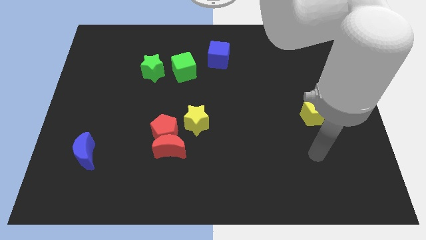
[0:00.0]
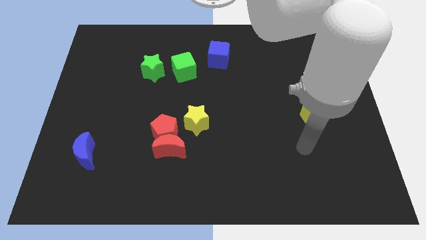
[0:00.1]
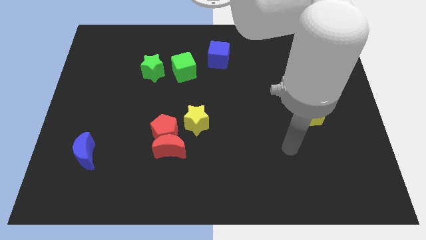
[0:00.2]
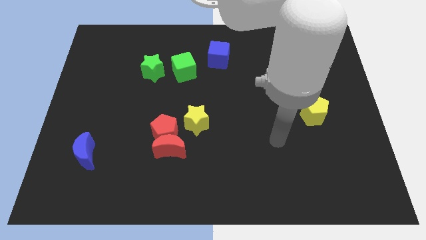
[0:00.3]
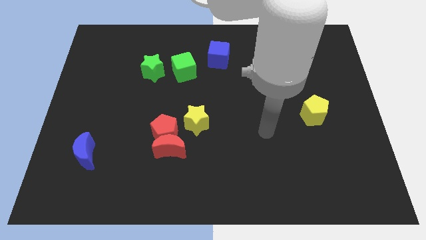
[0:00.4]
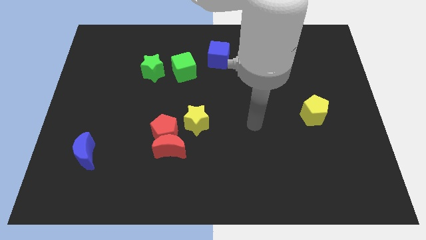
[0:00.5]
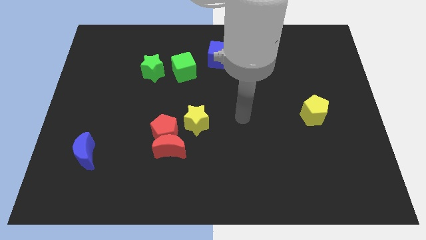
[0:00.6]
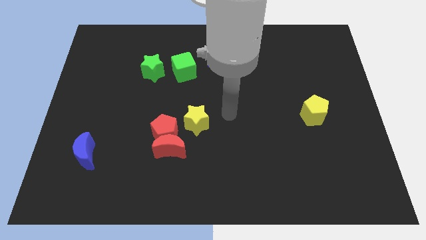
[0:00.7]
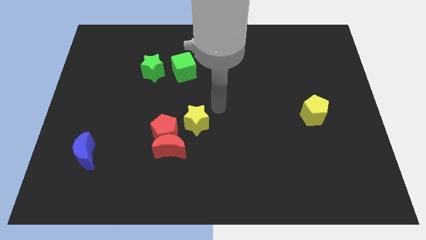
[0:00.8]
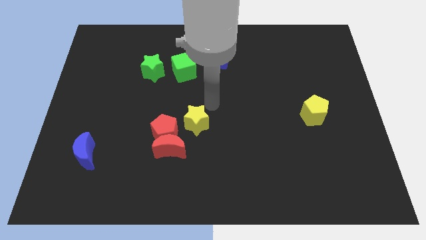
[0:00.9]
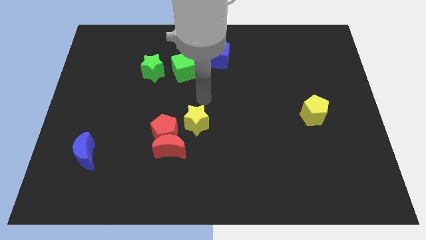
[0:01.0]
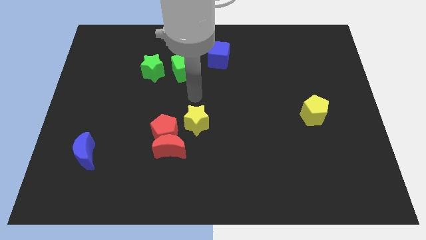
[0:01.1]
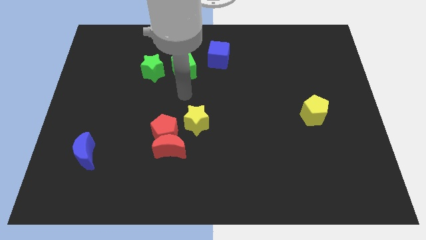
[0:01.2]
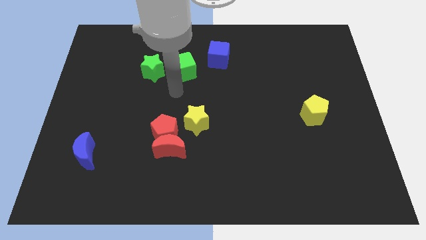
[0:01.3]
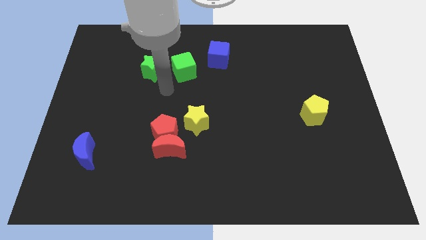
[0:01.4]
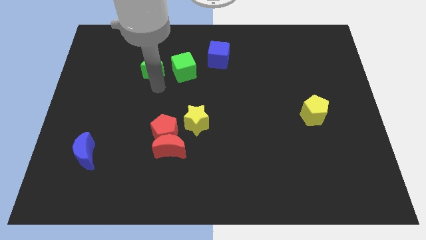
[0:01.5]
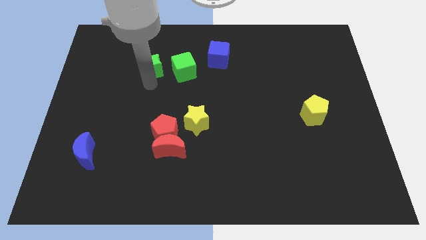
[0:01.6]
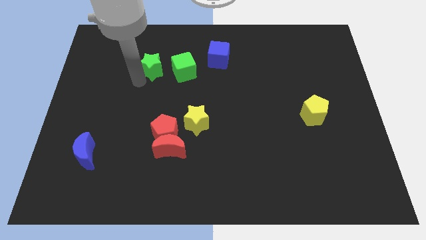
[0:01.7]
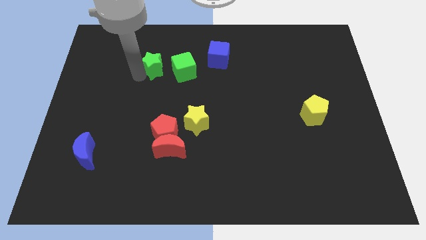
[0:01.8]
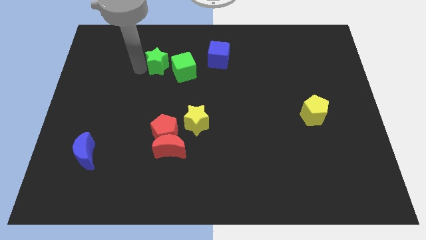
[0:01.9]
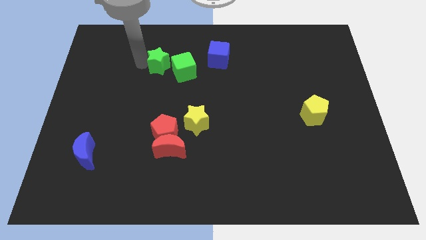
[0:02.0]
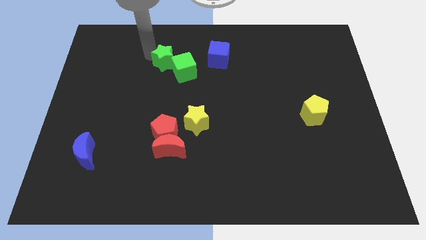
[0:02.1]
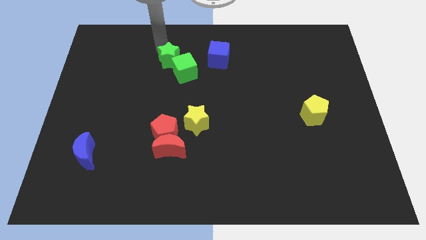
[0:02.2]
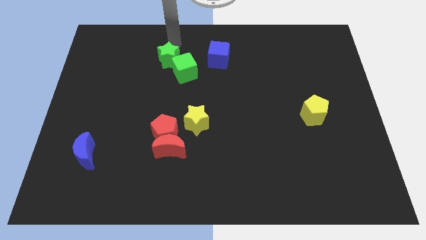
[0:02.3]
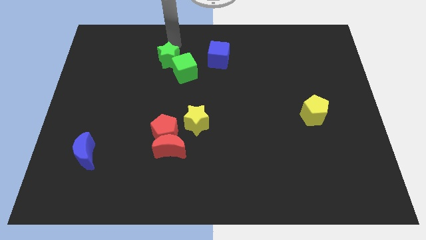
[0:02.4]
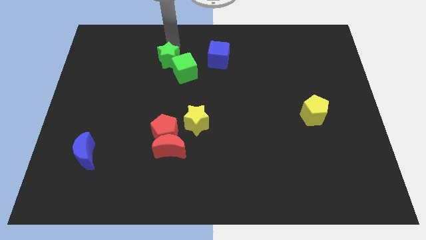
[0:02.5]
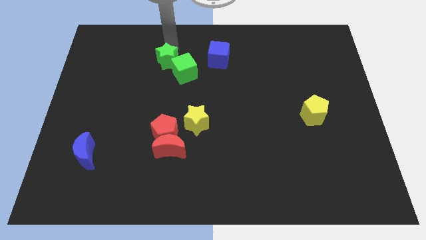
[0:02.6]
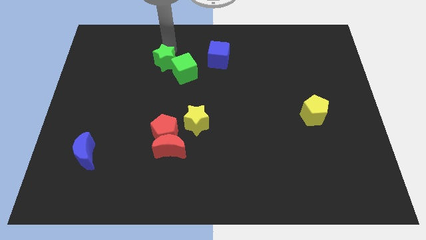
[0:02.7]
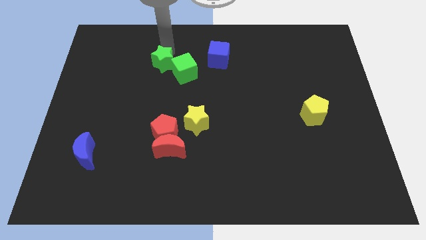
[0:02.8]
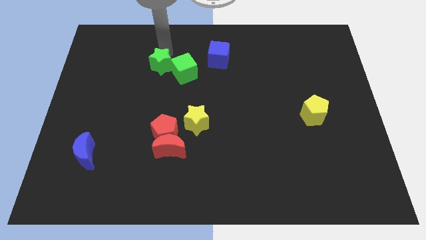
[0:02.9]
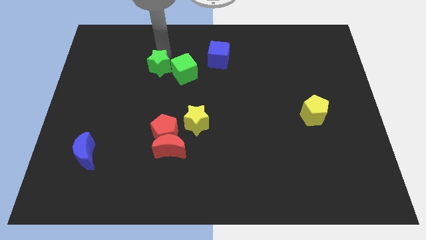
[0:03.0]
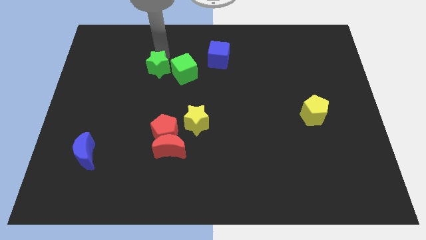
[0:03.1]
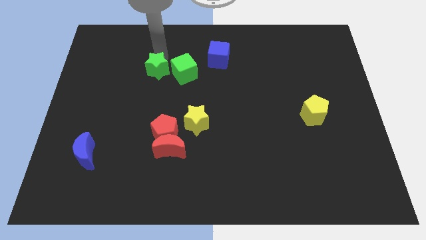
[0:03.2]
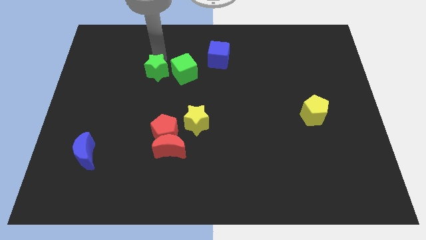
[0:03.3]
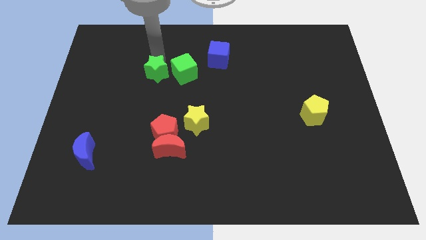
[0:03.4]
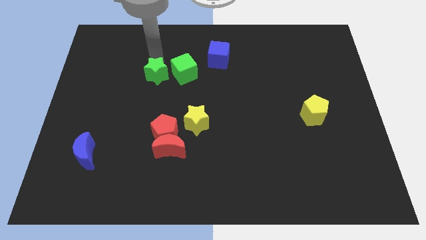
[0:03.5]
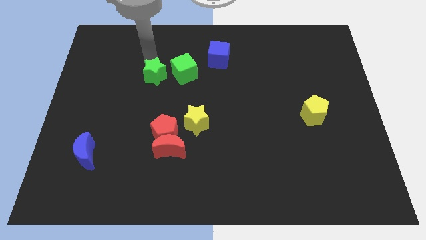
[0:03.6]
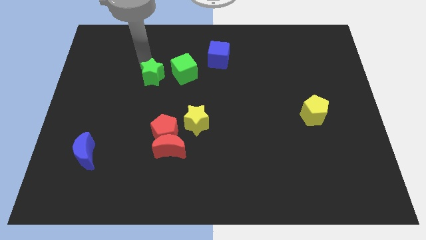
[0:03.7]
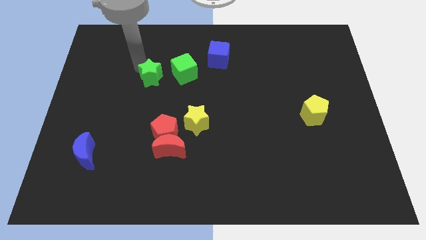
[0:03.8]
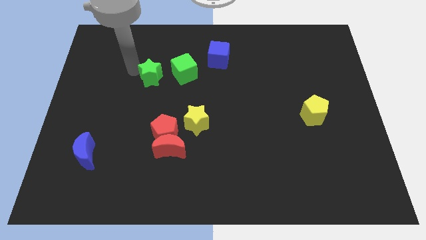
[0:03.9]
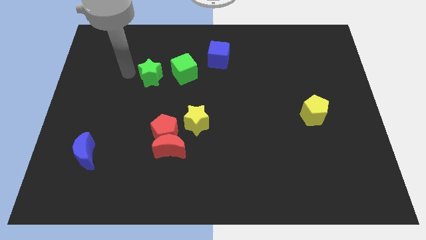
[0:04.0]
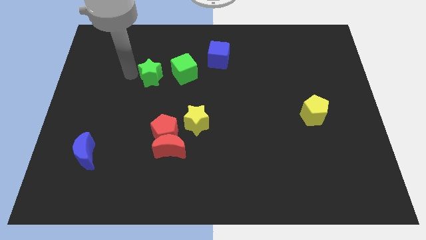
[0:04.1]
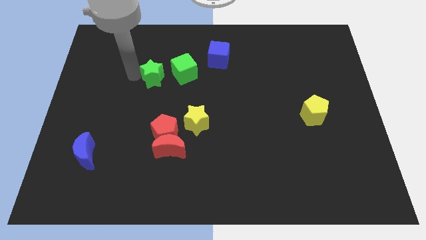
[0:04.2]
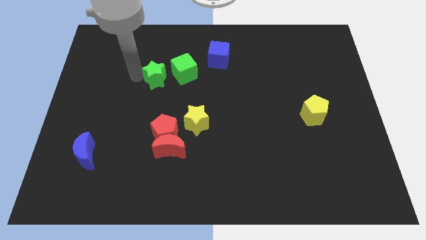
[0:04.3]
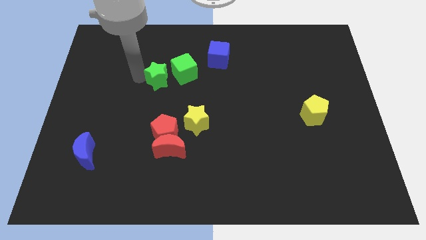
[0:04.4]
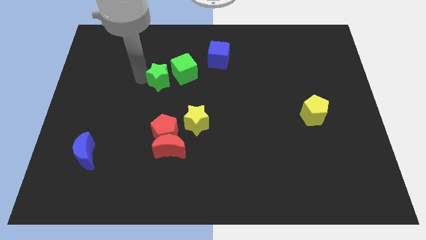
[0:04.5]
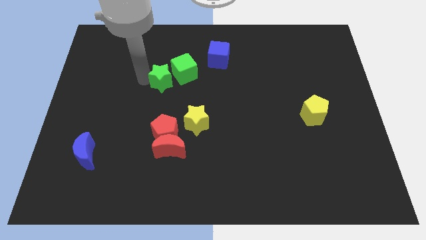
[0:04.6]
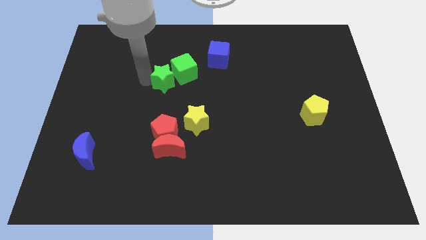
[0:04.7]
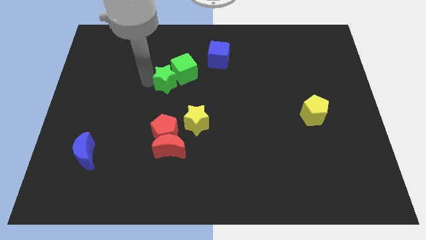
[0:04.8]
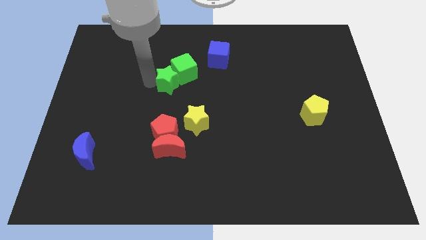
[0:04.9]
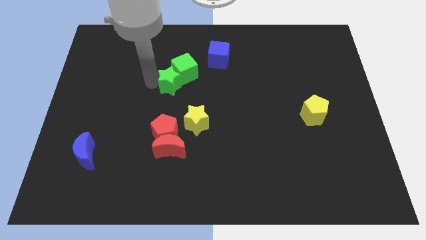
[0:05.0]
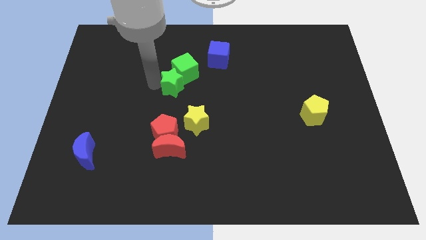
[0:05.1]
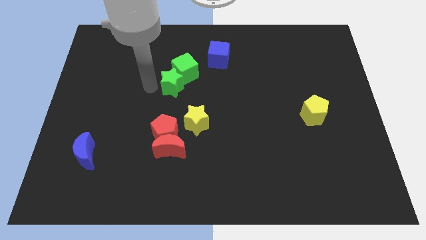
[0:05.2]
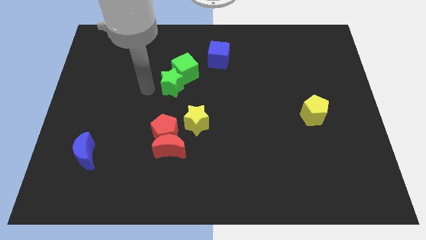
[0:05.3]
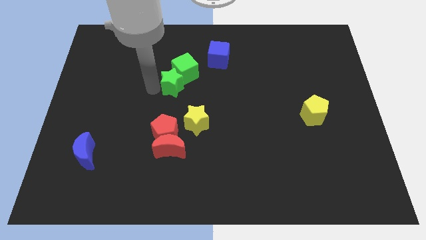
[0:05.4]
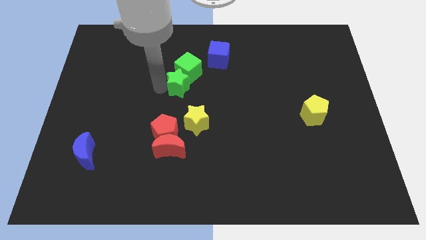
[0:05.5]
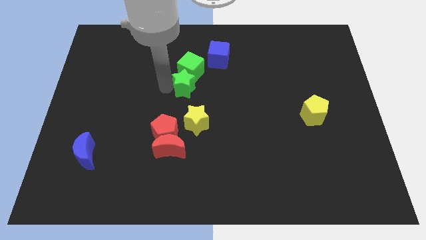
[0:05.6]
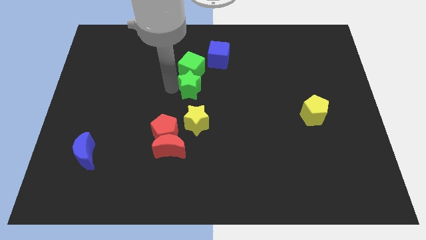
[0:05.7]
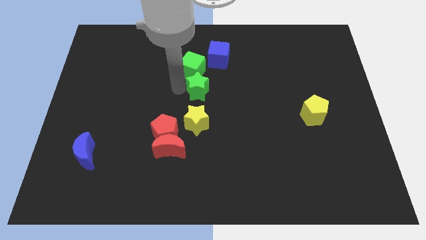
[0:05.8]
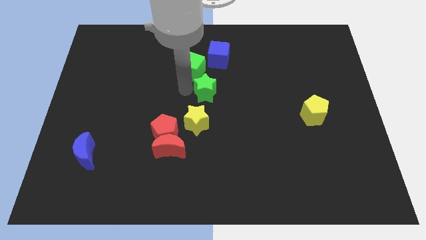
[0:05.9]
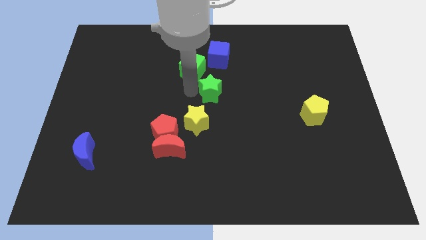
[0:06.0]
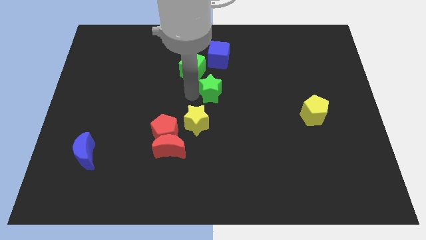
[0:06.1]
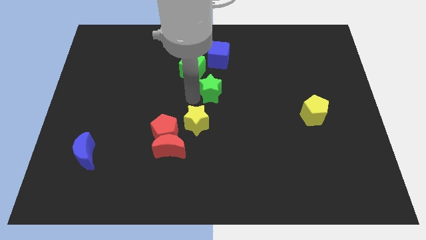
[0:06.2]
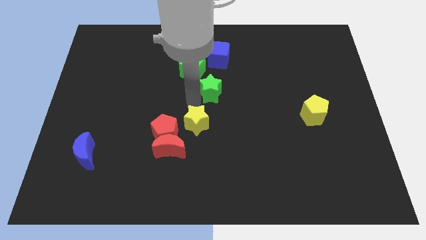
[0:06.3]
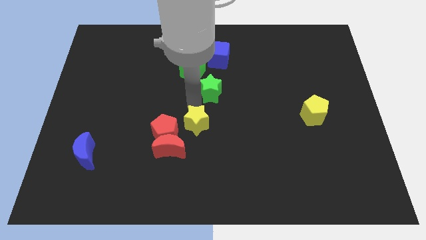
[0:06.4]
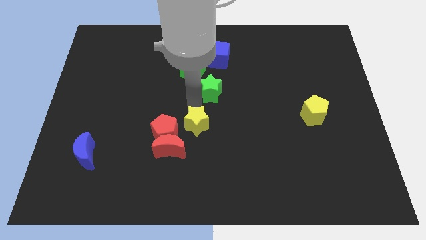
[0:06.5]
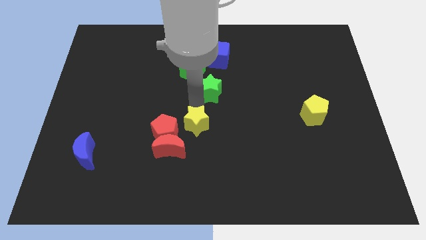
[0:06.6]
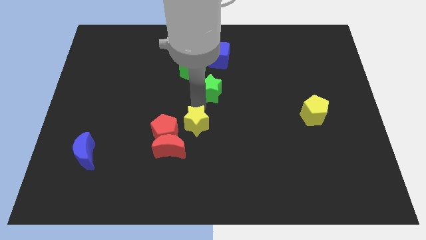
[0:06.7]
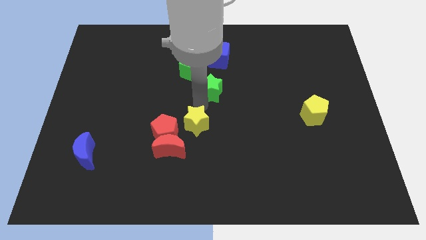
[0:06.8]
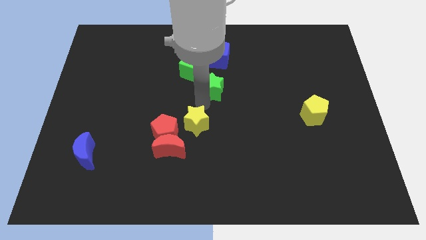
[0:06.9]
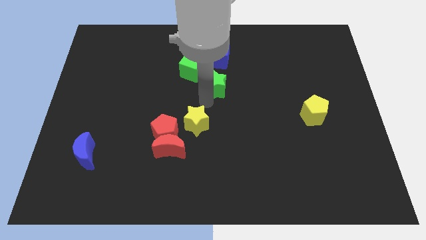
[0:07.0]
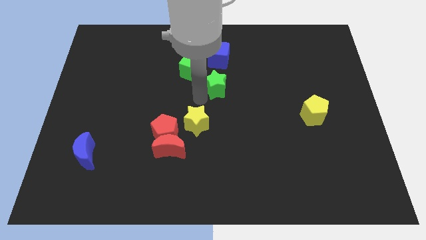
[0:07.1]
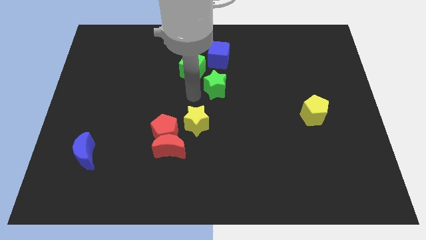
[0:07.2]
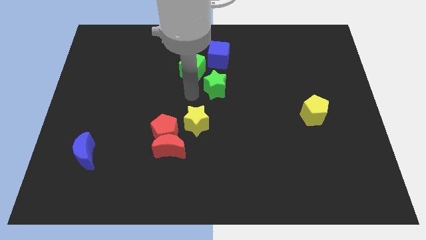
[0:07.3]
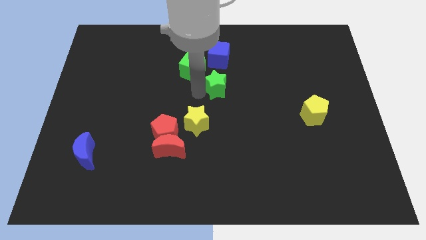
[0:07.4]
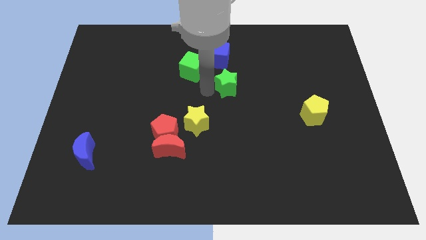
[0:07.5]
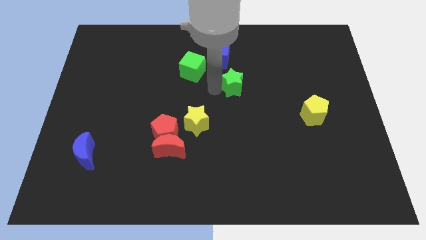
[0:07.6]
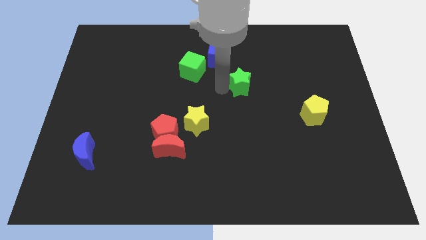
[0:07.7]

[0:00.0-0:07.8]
push the green star to the right
